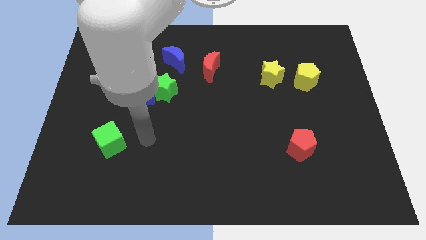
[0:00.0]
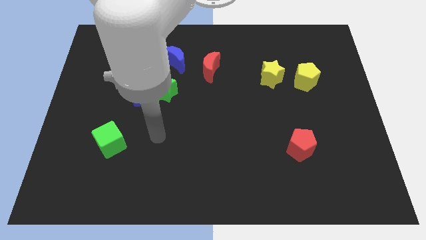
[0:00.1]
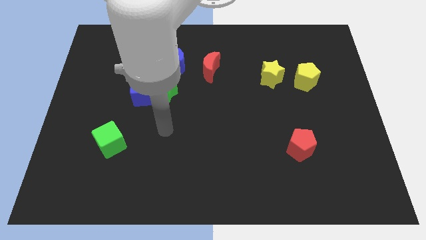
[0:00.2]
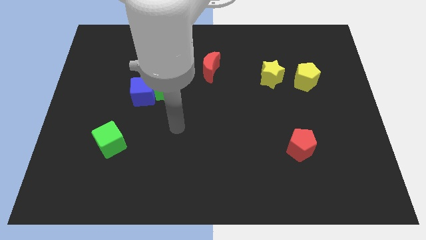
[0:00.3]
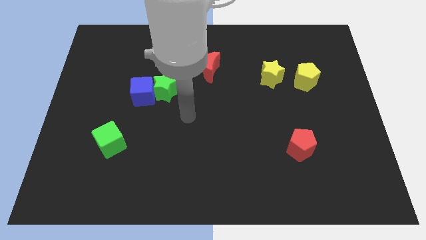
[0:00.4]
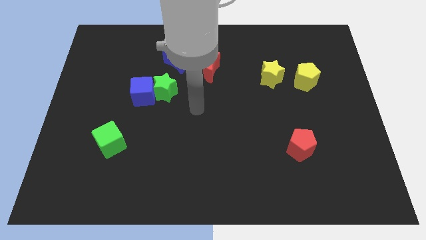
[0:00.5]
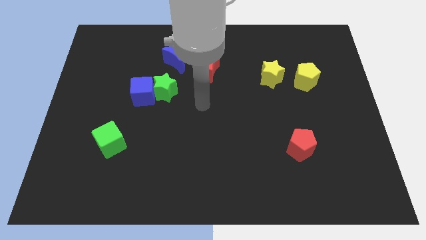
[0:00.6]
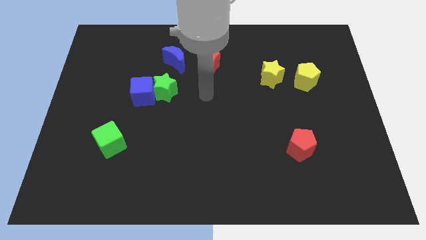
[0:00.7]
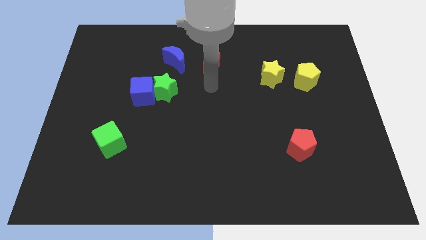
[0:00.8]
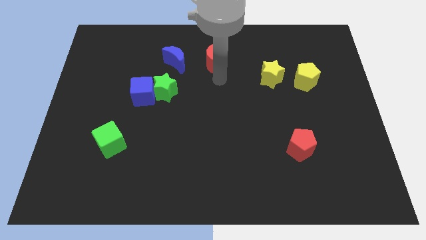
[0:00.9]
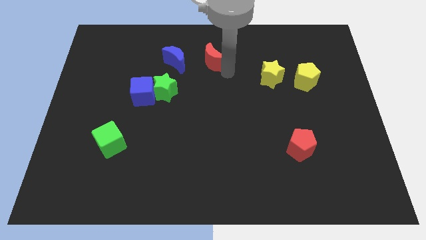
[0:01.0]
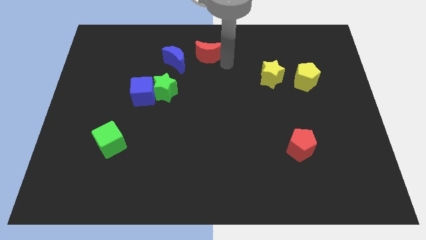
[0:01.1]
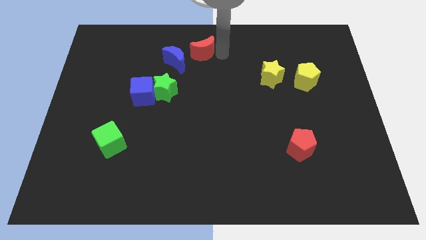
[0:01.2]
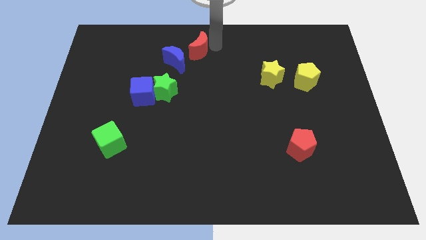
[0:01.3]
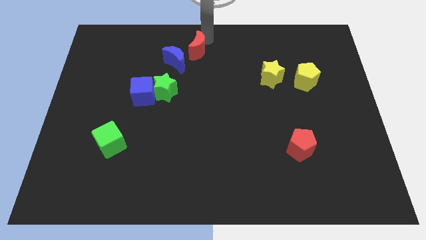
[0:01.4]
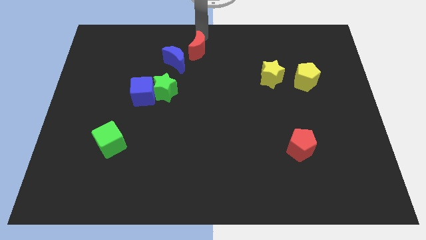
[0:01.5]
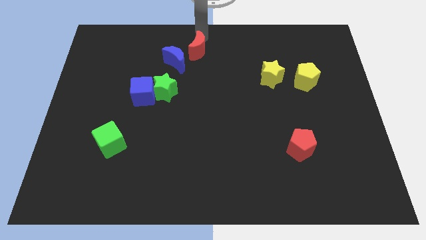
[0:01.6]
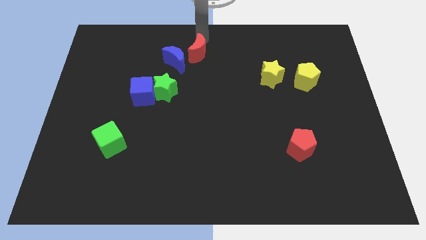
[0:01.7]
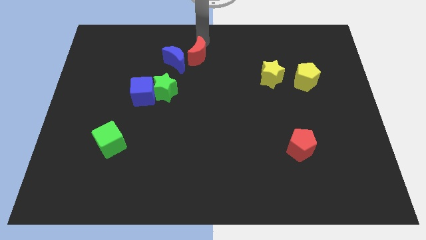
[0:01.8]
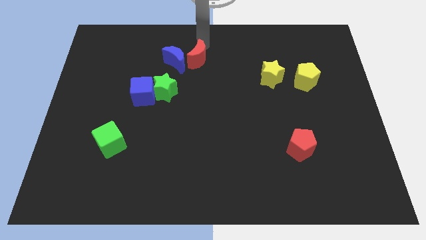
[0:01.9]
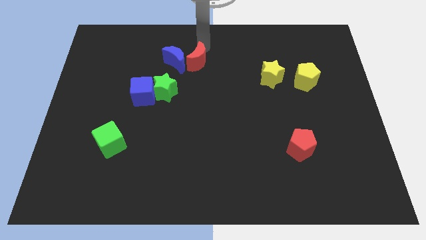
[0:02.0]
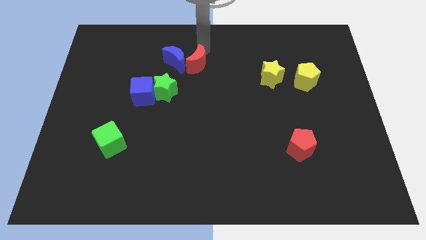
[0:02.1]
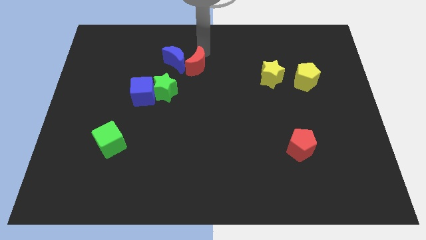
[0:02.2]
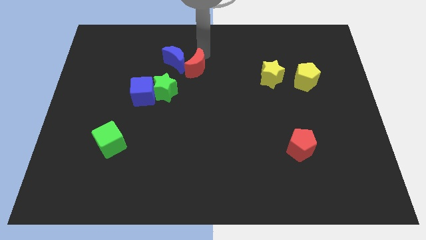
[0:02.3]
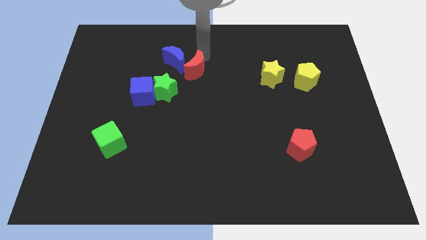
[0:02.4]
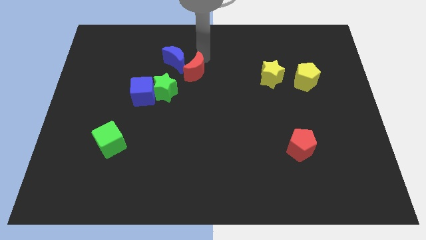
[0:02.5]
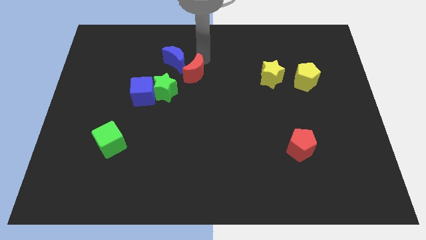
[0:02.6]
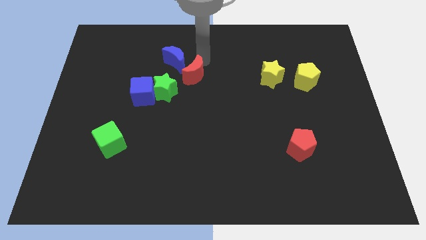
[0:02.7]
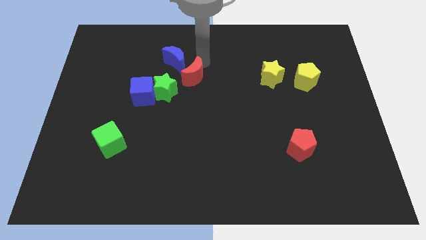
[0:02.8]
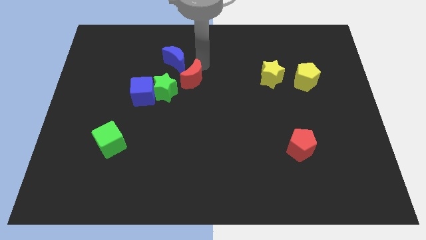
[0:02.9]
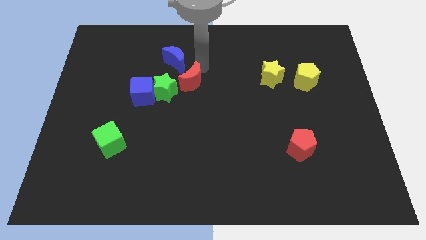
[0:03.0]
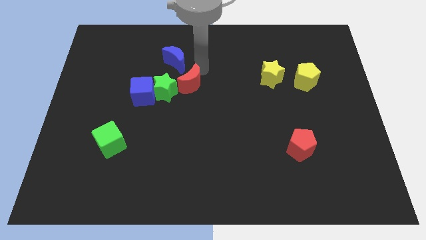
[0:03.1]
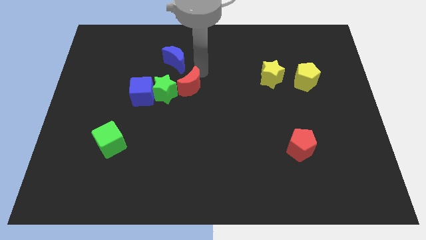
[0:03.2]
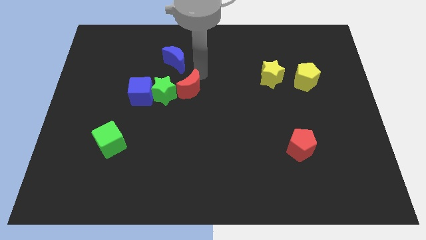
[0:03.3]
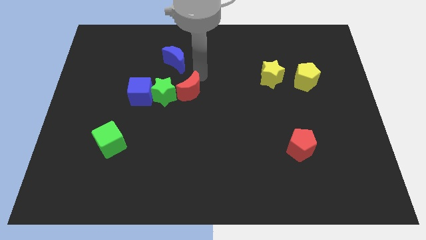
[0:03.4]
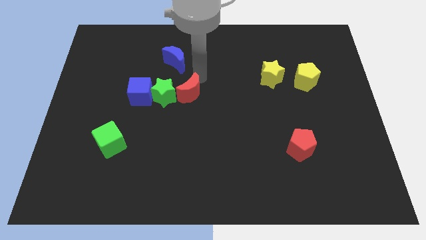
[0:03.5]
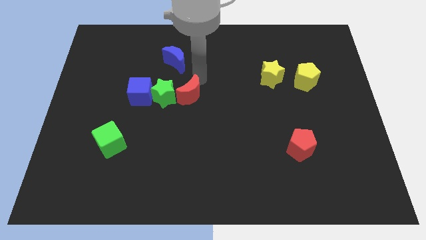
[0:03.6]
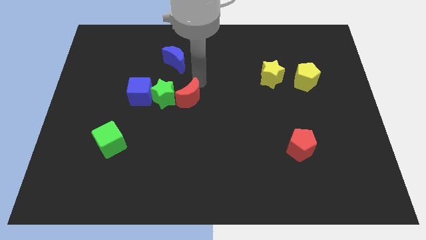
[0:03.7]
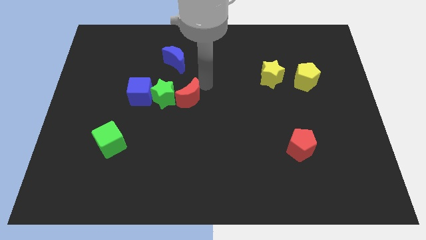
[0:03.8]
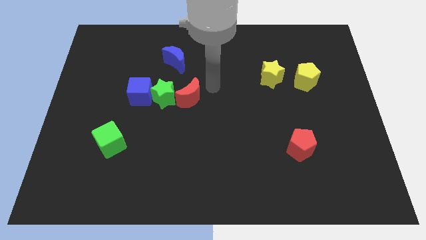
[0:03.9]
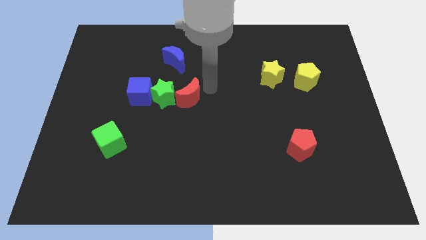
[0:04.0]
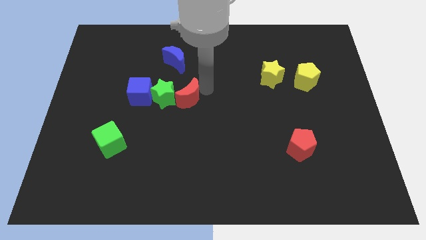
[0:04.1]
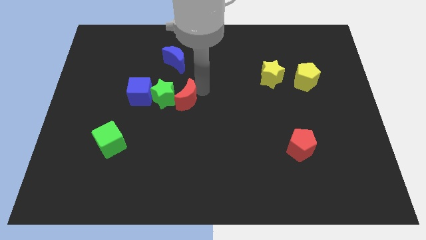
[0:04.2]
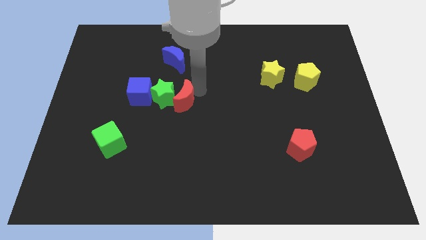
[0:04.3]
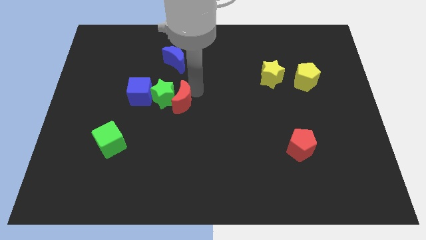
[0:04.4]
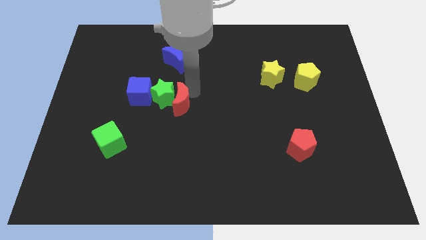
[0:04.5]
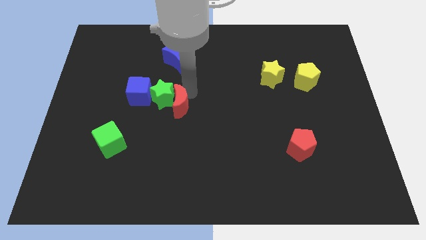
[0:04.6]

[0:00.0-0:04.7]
push the red moon to the bottom right side of the blue cube

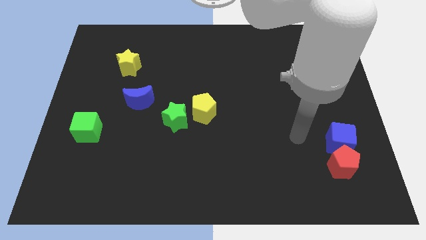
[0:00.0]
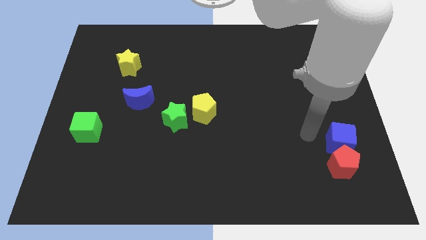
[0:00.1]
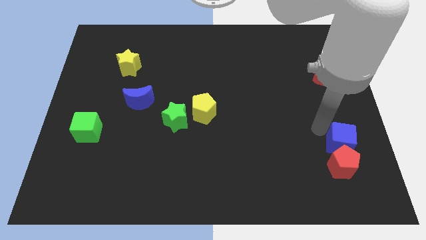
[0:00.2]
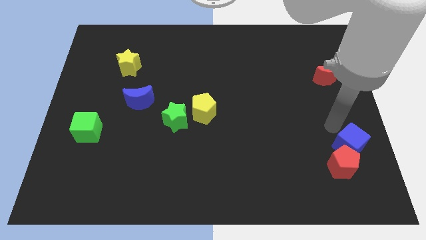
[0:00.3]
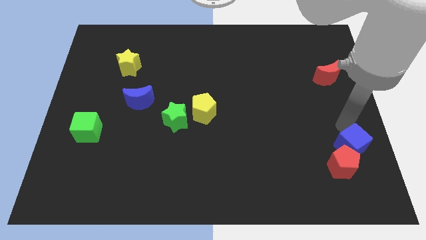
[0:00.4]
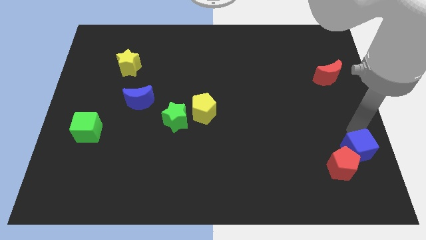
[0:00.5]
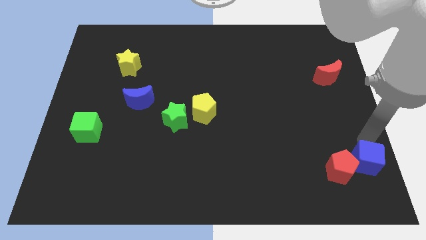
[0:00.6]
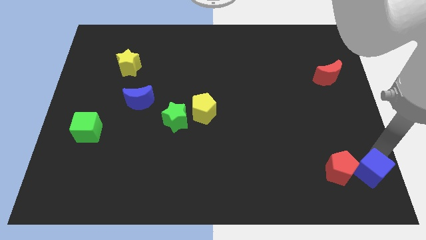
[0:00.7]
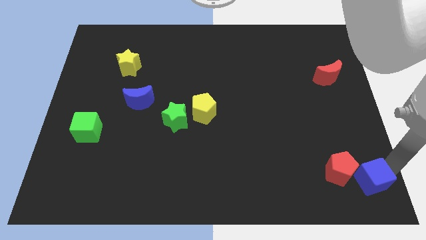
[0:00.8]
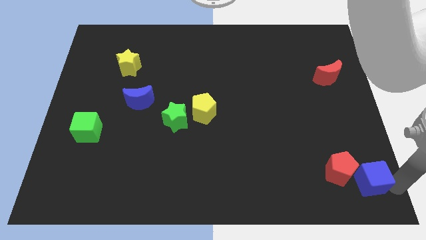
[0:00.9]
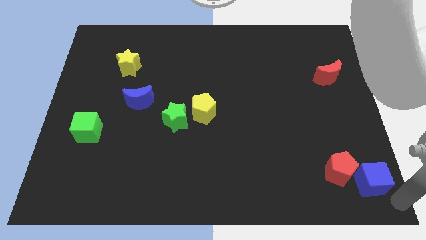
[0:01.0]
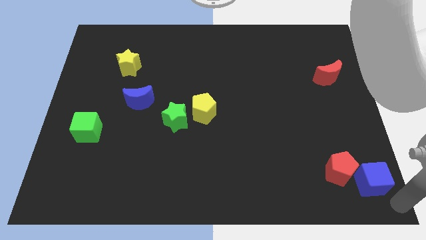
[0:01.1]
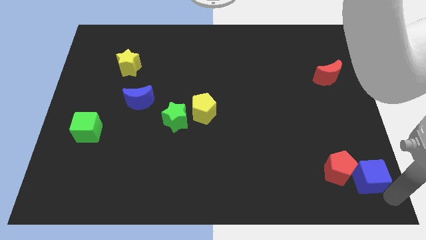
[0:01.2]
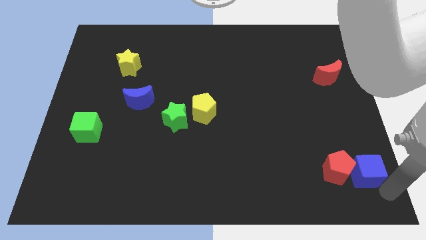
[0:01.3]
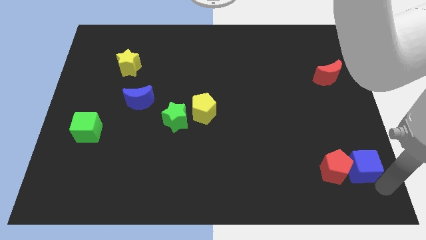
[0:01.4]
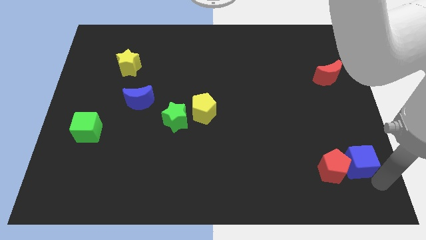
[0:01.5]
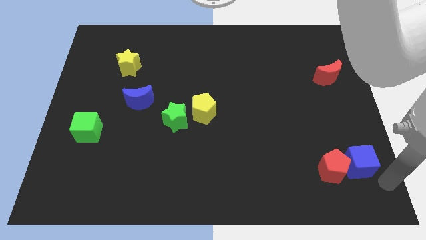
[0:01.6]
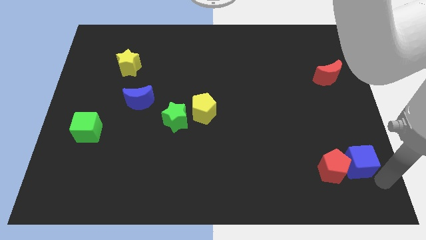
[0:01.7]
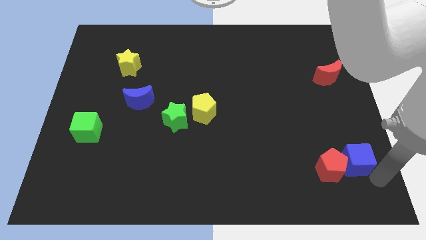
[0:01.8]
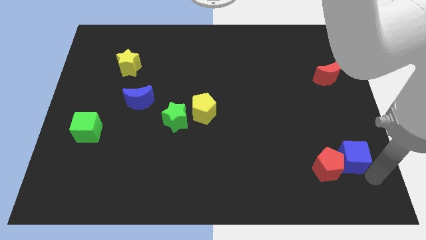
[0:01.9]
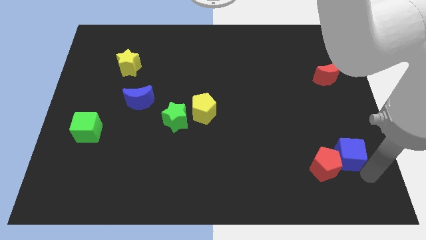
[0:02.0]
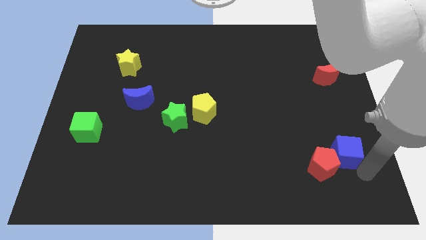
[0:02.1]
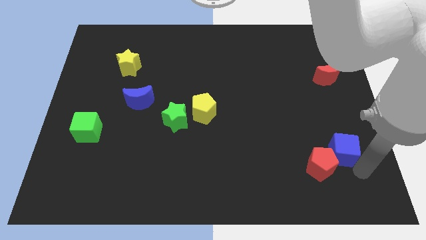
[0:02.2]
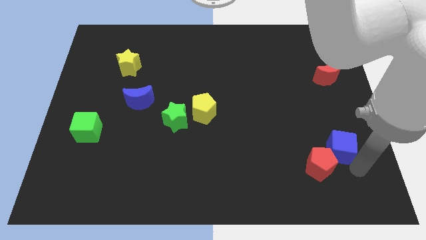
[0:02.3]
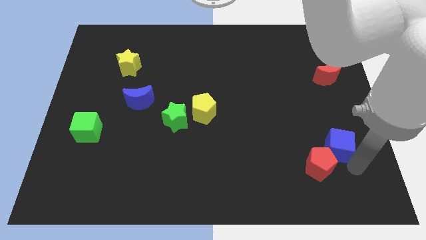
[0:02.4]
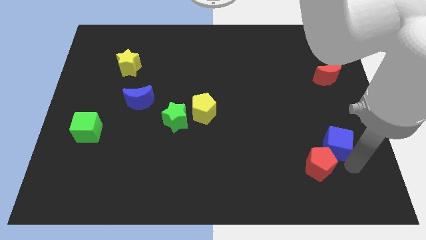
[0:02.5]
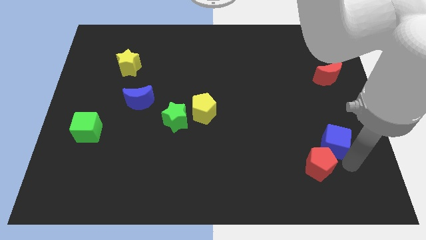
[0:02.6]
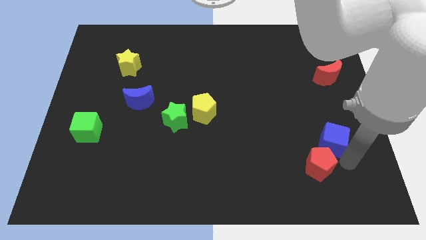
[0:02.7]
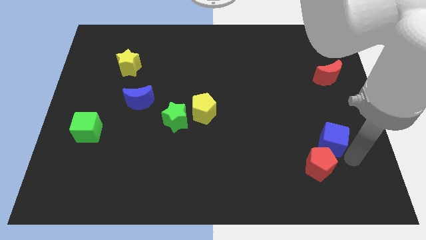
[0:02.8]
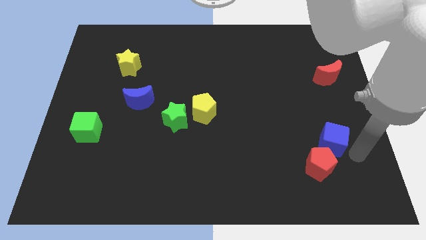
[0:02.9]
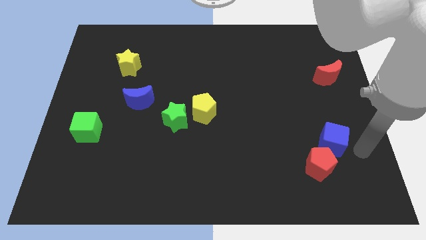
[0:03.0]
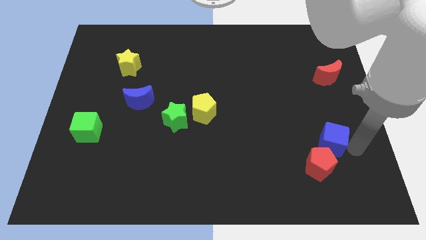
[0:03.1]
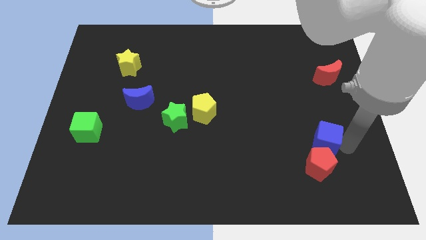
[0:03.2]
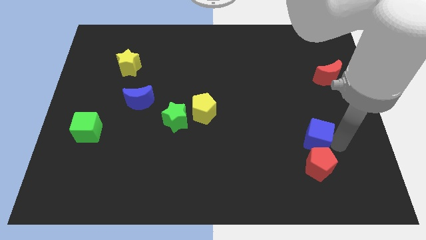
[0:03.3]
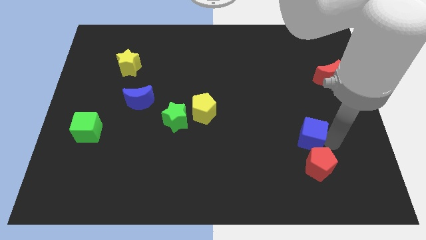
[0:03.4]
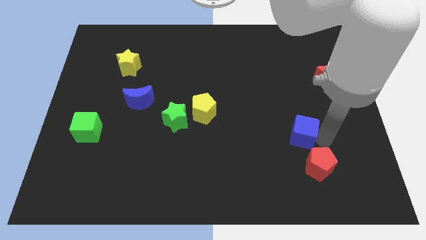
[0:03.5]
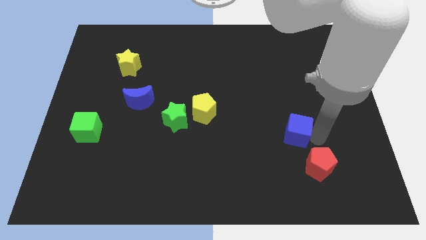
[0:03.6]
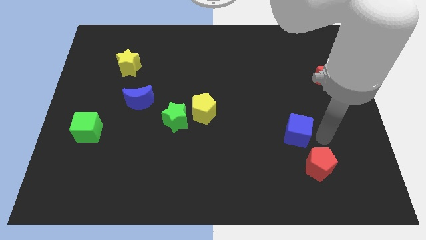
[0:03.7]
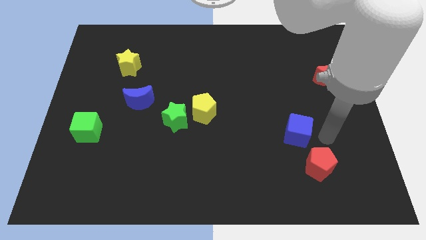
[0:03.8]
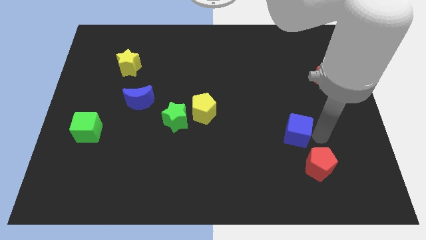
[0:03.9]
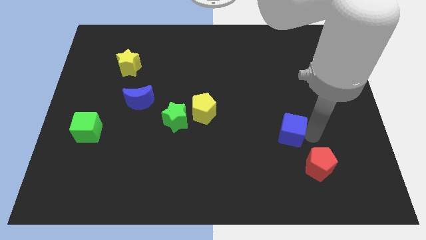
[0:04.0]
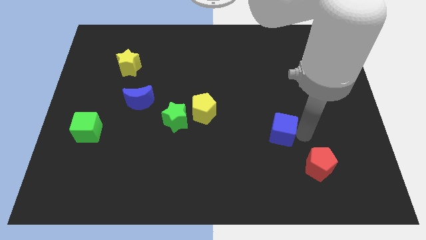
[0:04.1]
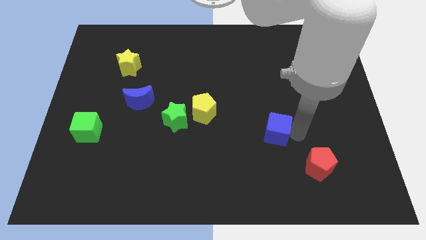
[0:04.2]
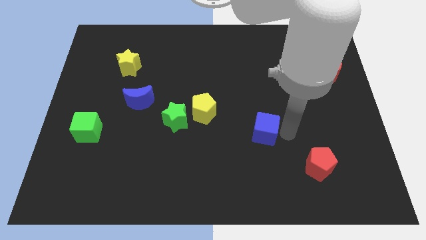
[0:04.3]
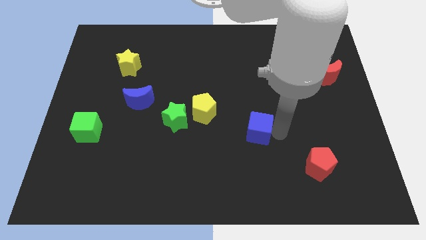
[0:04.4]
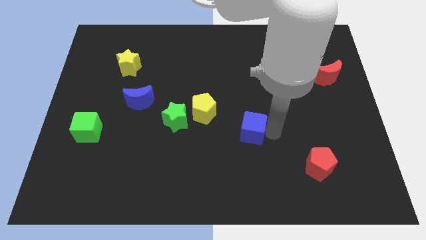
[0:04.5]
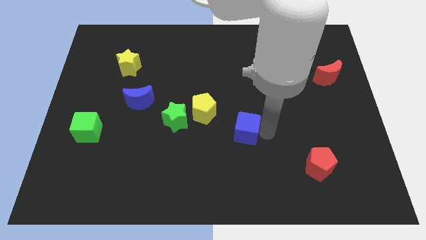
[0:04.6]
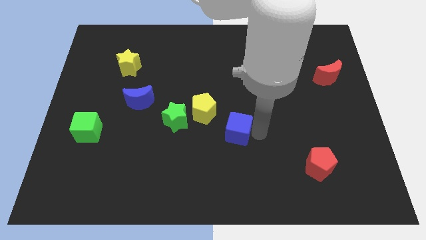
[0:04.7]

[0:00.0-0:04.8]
push the blue cube right of the green star
